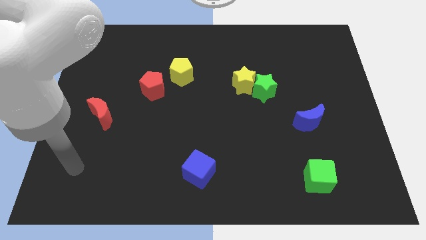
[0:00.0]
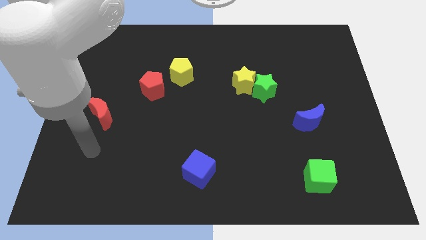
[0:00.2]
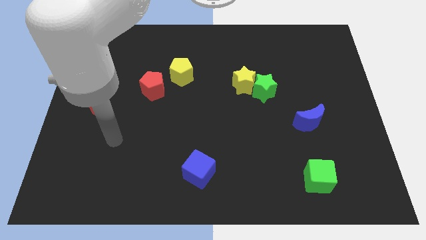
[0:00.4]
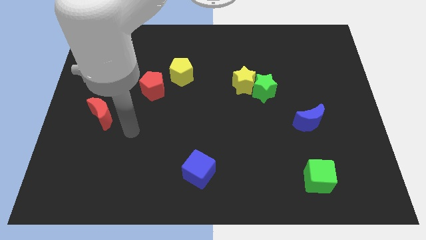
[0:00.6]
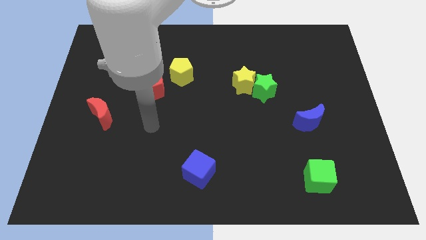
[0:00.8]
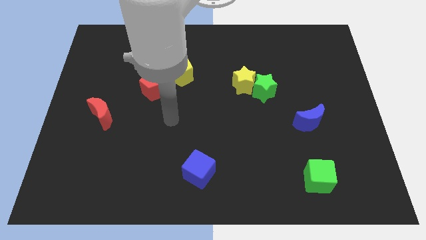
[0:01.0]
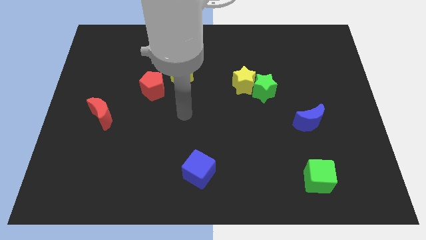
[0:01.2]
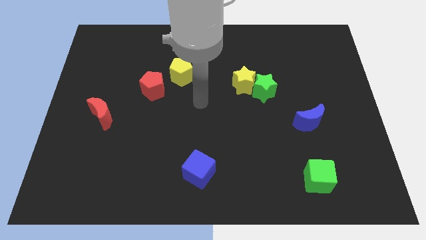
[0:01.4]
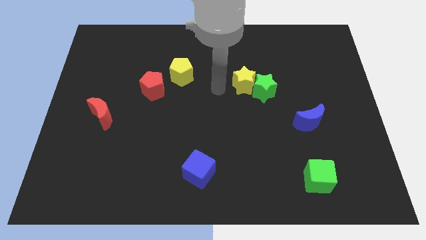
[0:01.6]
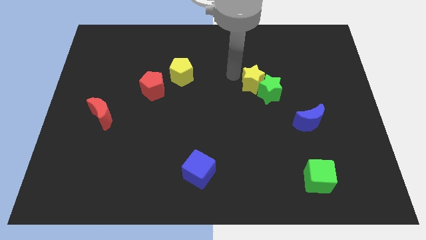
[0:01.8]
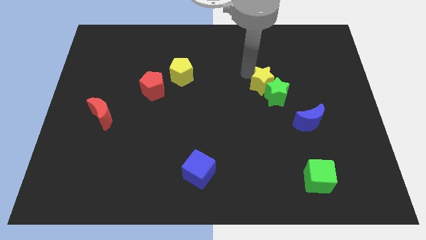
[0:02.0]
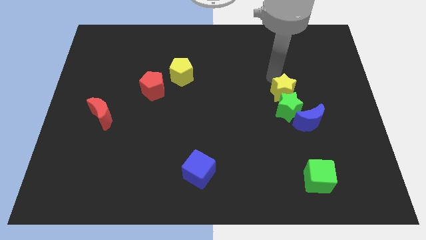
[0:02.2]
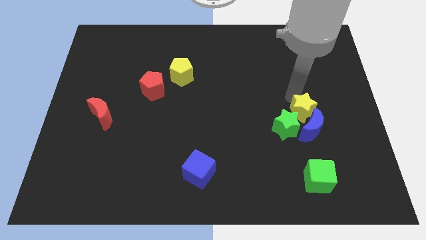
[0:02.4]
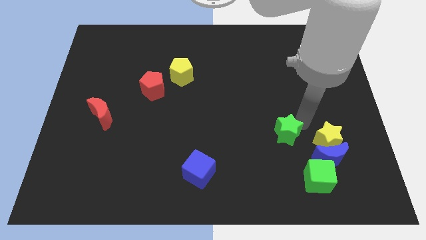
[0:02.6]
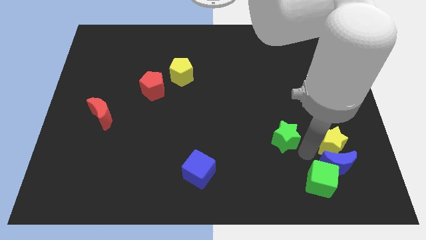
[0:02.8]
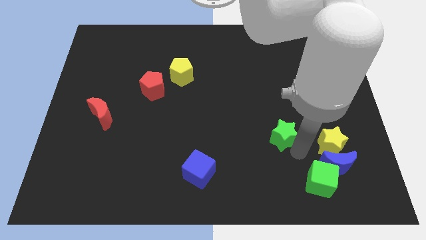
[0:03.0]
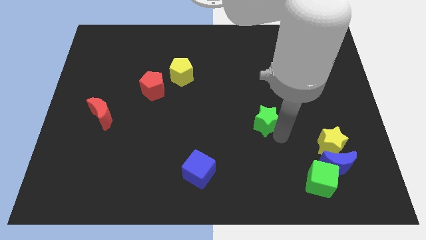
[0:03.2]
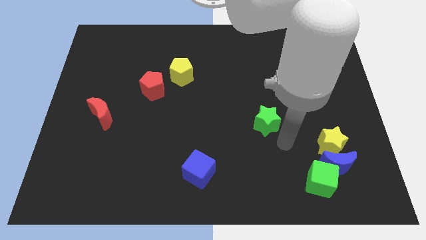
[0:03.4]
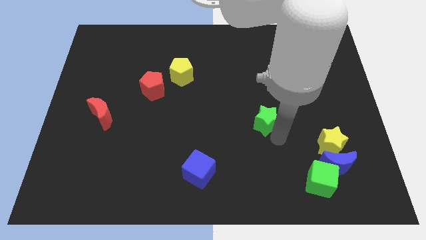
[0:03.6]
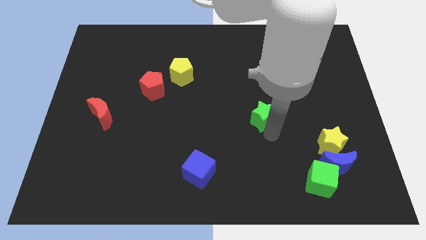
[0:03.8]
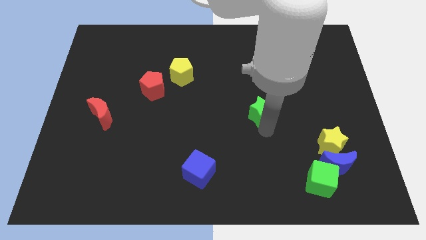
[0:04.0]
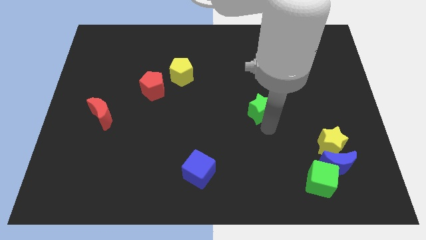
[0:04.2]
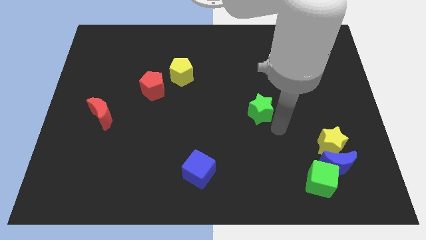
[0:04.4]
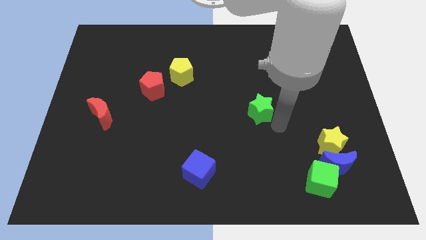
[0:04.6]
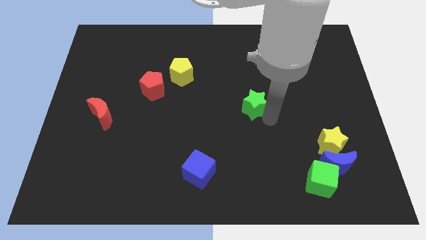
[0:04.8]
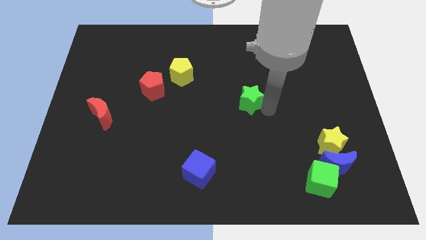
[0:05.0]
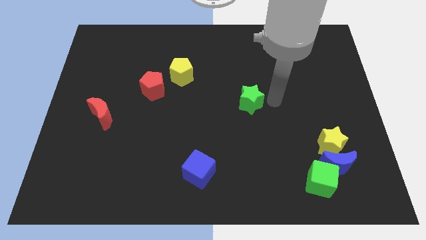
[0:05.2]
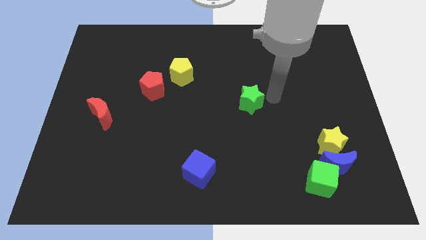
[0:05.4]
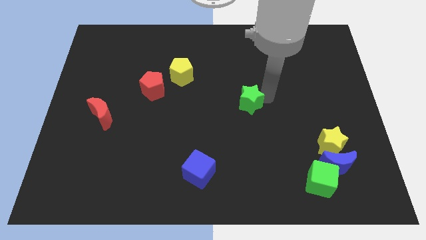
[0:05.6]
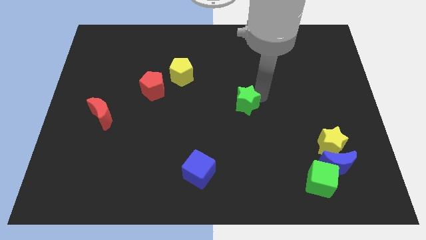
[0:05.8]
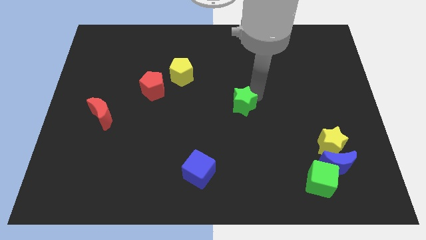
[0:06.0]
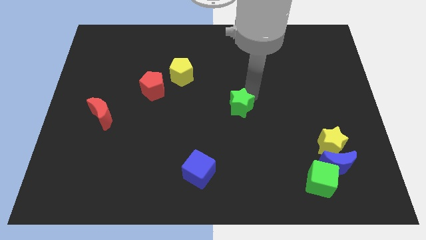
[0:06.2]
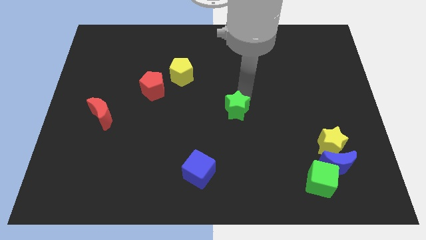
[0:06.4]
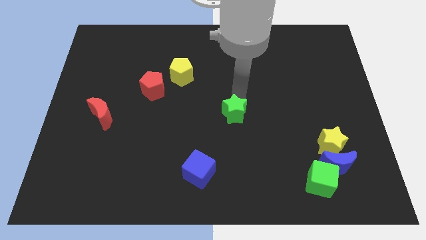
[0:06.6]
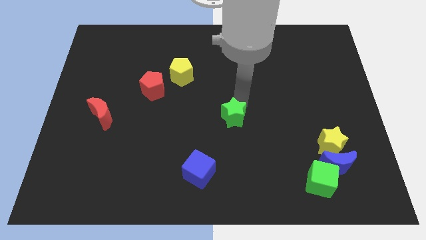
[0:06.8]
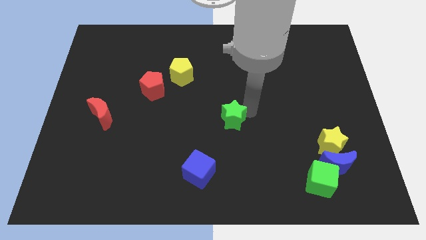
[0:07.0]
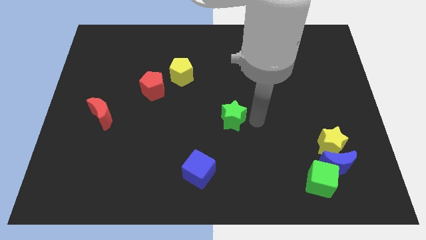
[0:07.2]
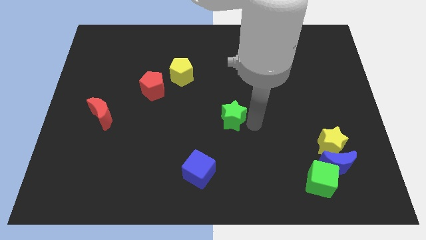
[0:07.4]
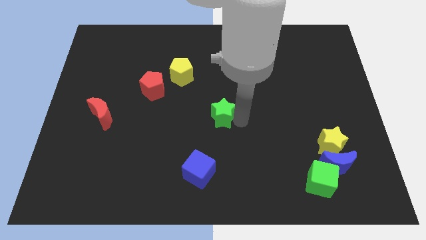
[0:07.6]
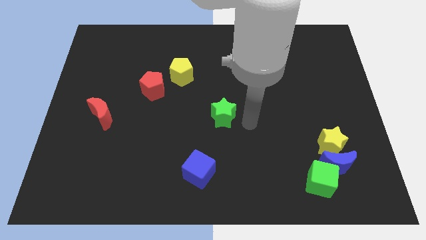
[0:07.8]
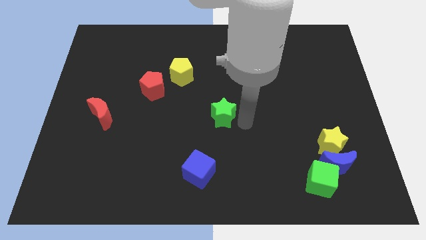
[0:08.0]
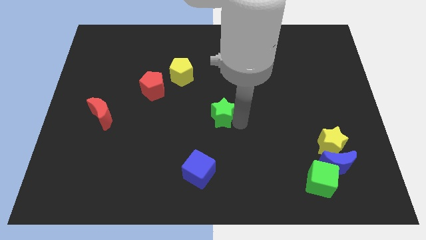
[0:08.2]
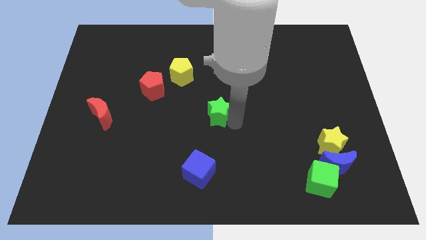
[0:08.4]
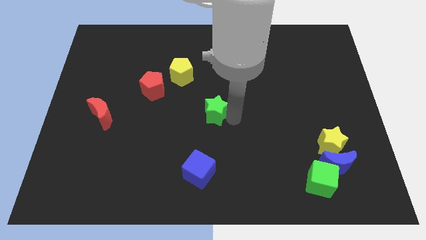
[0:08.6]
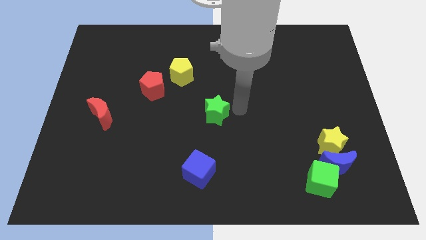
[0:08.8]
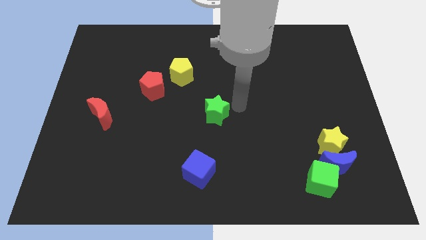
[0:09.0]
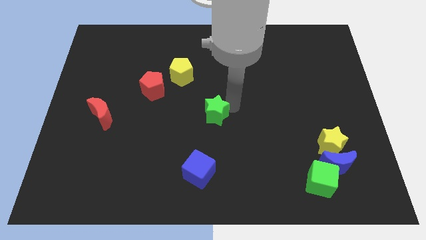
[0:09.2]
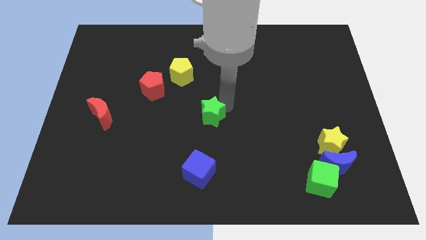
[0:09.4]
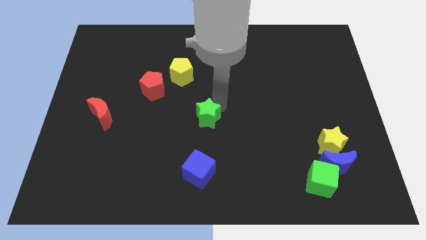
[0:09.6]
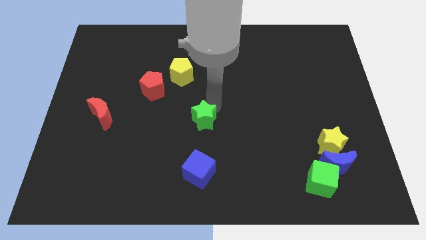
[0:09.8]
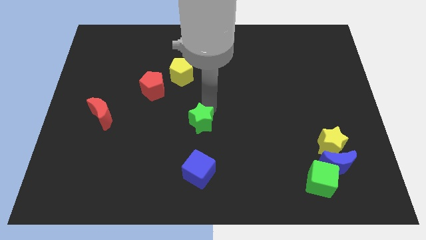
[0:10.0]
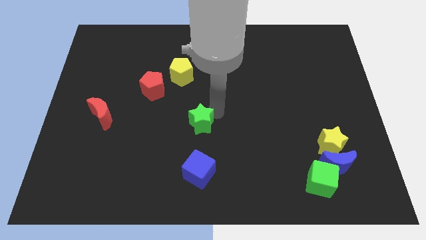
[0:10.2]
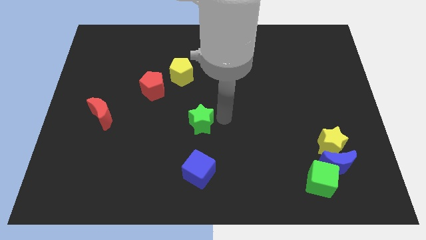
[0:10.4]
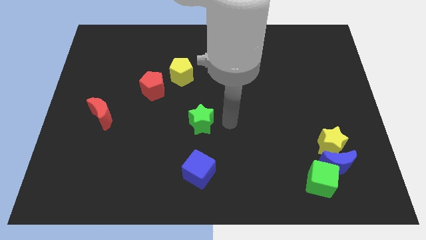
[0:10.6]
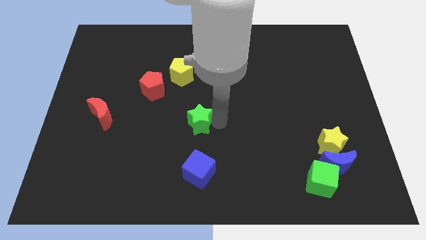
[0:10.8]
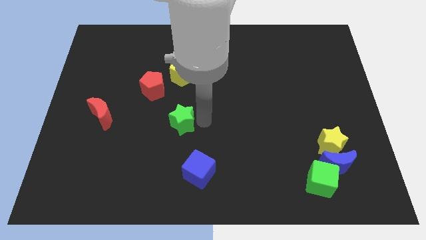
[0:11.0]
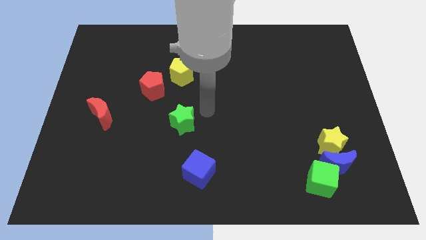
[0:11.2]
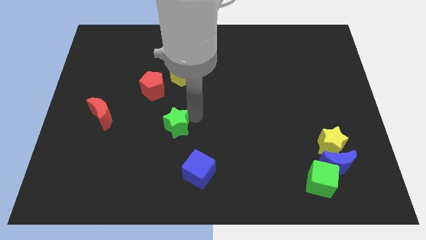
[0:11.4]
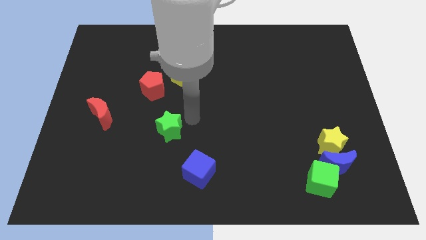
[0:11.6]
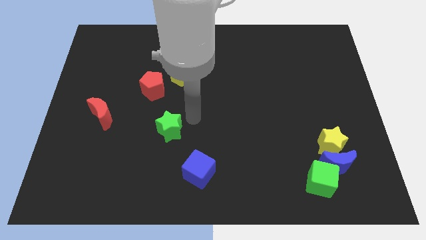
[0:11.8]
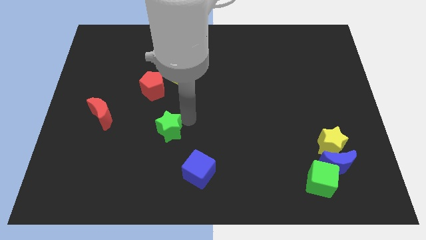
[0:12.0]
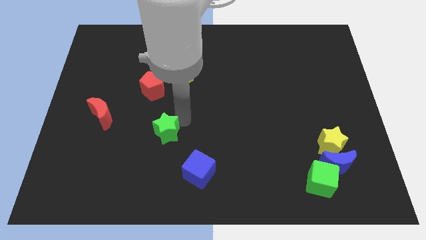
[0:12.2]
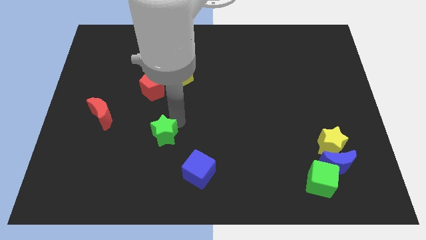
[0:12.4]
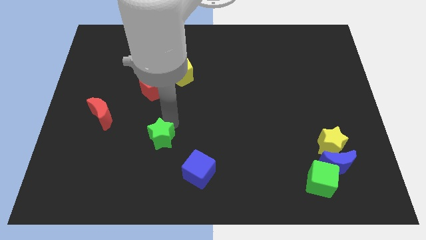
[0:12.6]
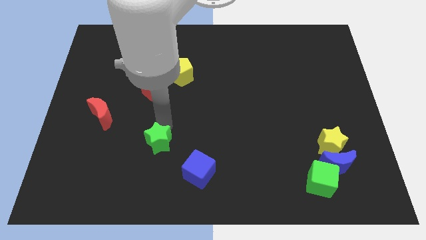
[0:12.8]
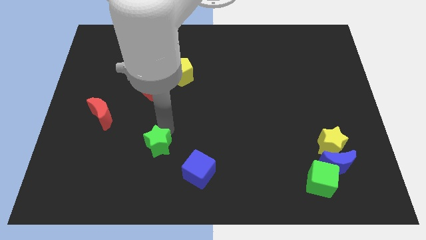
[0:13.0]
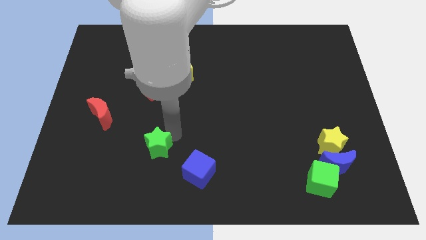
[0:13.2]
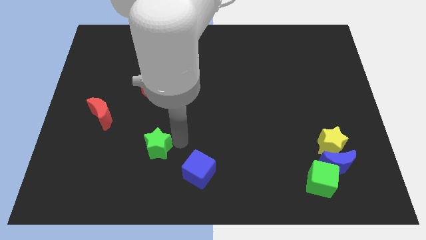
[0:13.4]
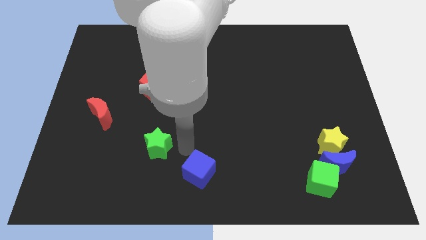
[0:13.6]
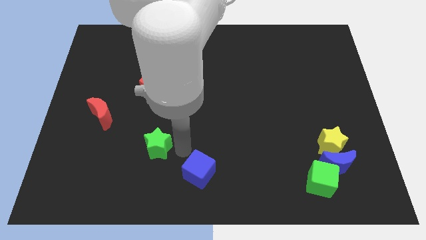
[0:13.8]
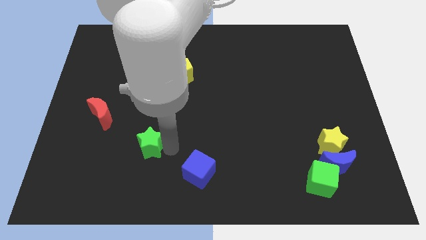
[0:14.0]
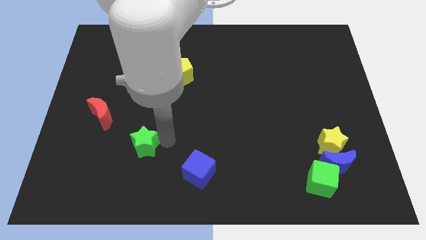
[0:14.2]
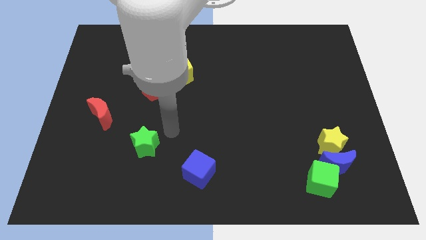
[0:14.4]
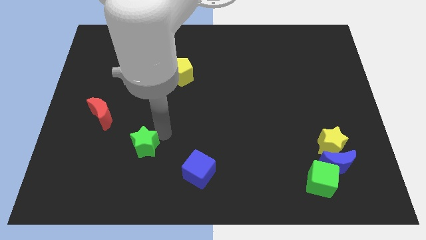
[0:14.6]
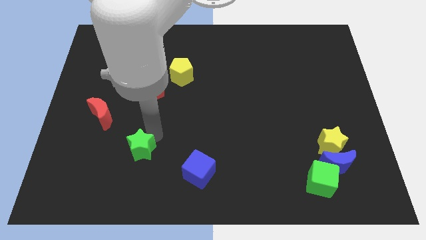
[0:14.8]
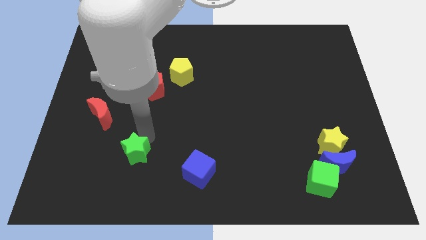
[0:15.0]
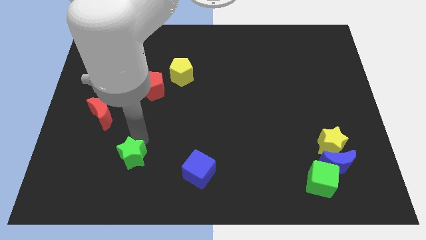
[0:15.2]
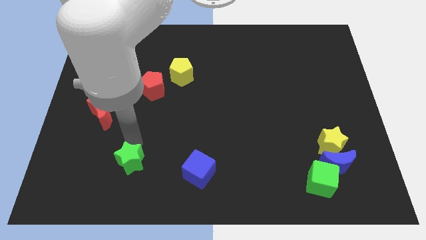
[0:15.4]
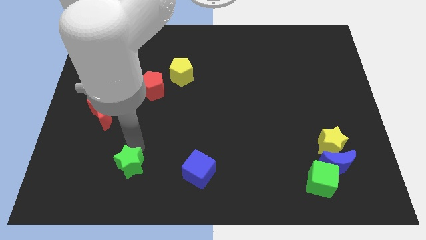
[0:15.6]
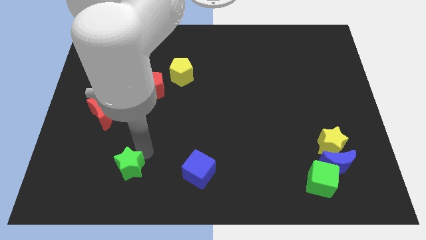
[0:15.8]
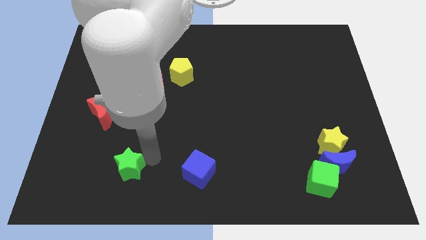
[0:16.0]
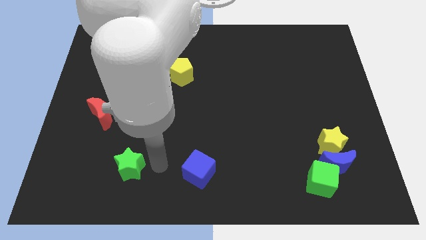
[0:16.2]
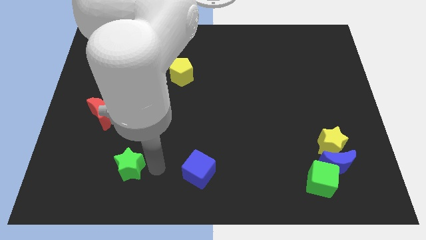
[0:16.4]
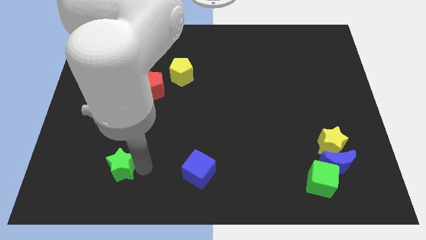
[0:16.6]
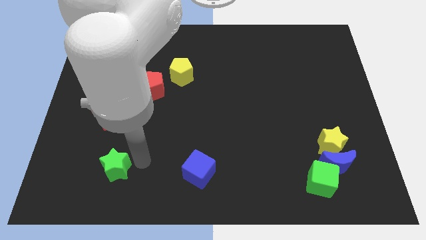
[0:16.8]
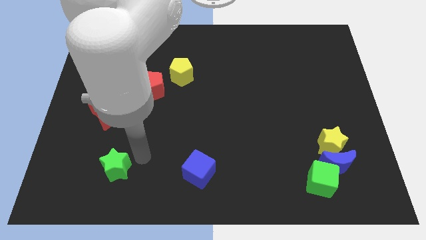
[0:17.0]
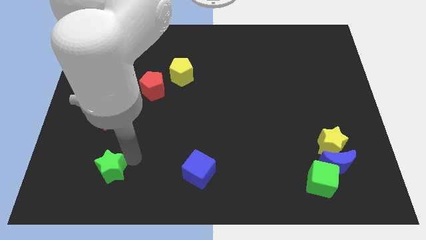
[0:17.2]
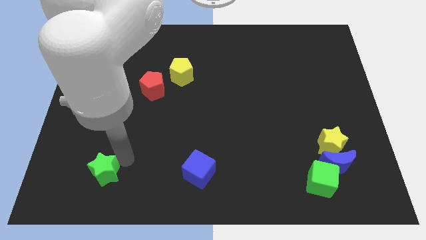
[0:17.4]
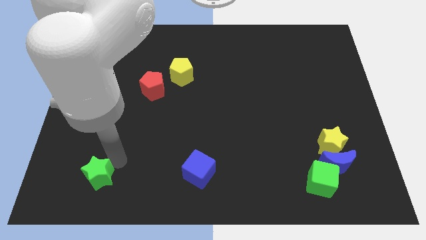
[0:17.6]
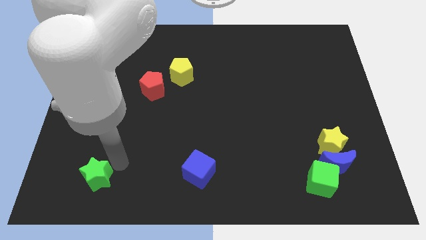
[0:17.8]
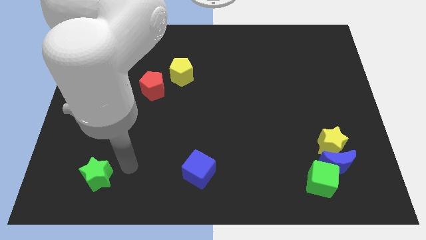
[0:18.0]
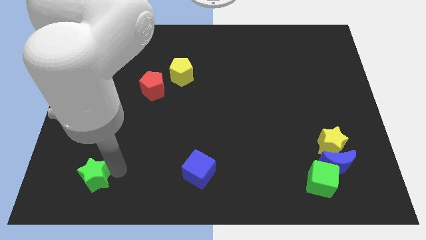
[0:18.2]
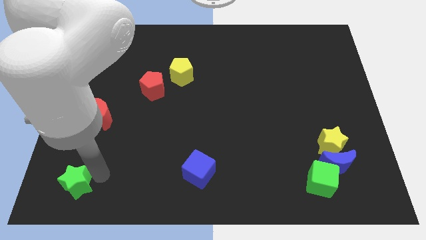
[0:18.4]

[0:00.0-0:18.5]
put the green star to the bottom left corner
